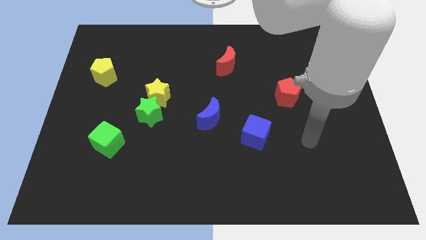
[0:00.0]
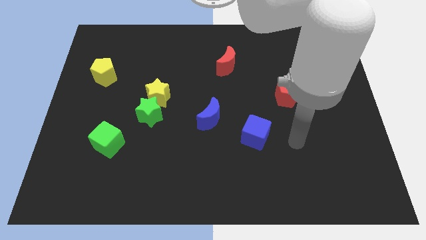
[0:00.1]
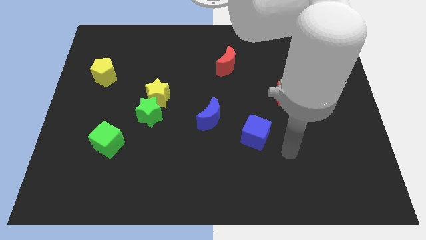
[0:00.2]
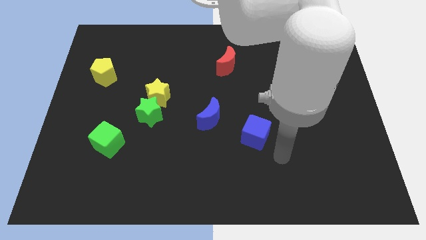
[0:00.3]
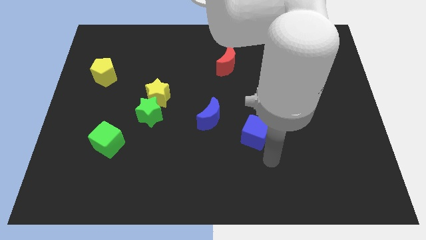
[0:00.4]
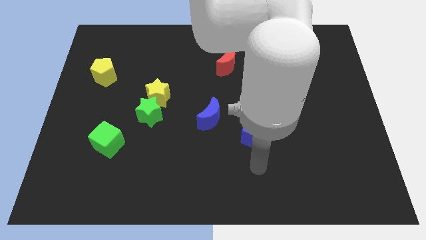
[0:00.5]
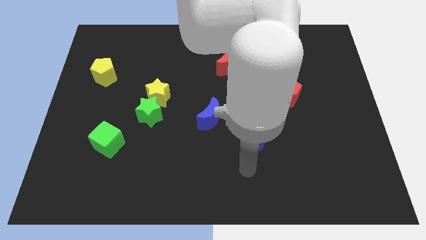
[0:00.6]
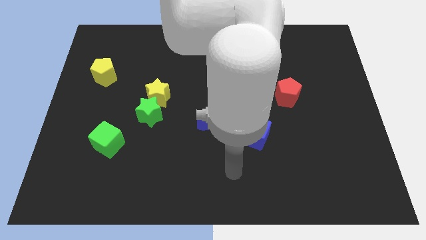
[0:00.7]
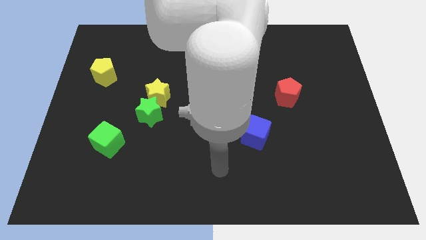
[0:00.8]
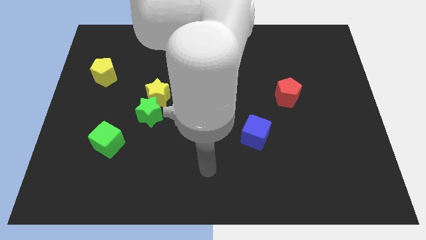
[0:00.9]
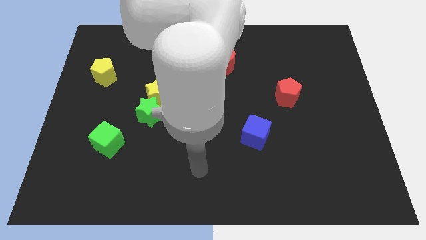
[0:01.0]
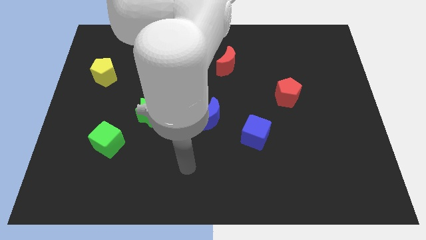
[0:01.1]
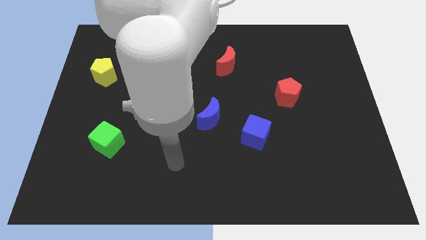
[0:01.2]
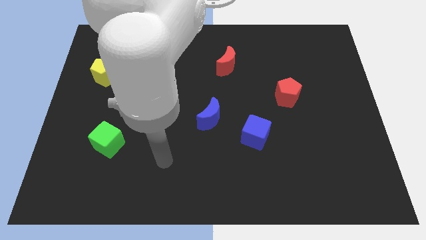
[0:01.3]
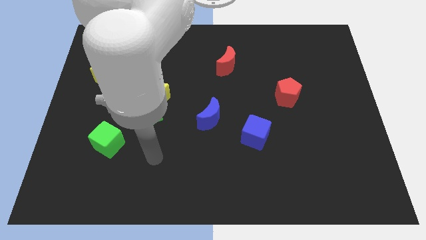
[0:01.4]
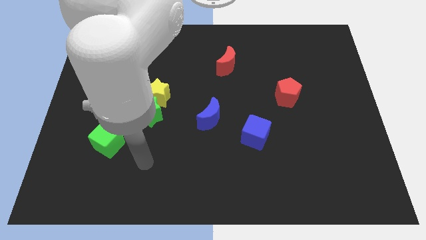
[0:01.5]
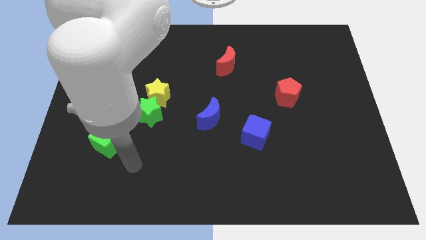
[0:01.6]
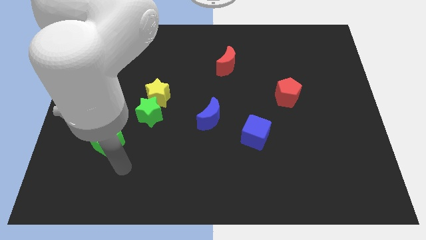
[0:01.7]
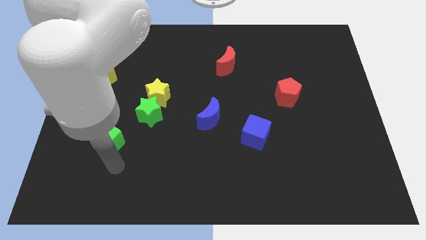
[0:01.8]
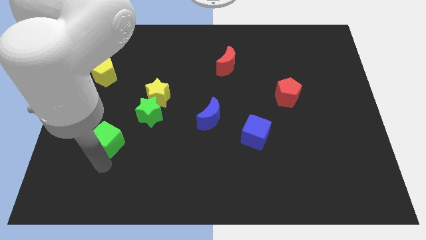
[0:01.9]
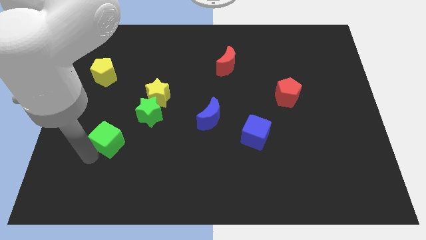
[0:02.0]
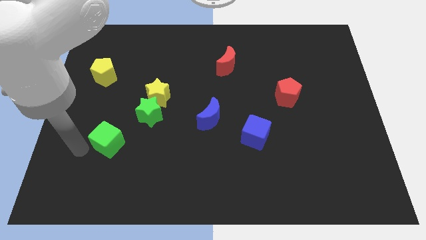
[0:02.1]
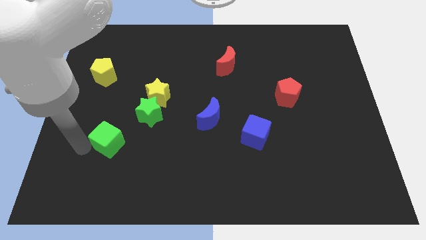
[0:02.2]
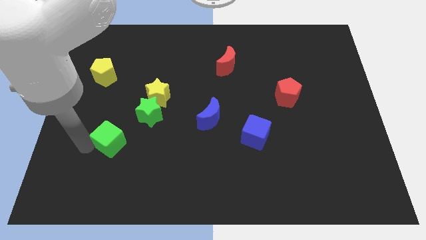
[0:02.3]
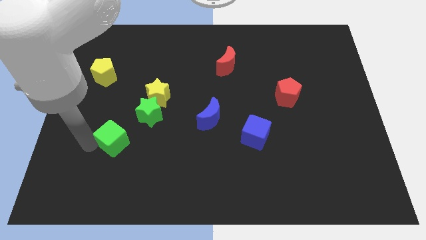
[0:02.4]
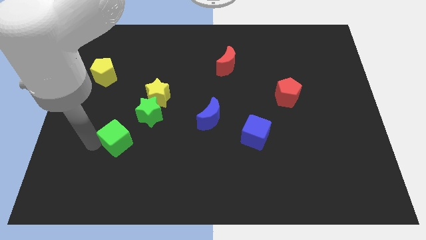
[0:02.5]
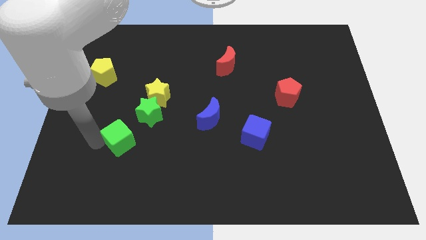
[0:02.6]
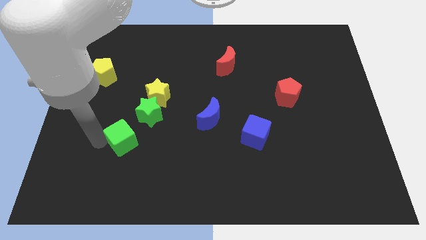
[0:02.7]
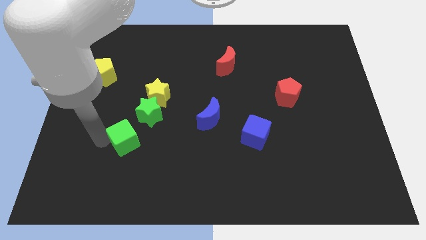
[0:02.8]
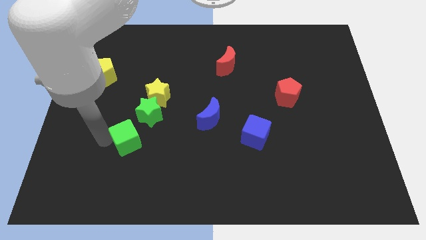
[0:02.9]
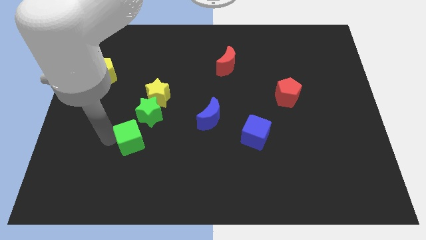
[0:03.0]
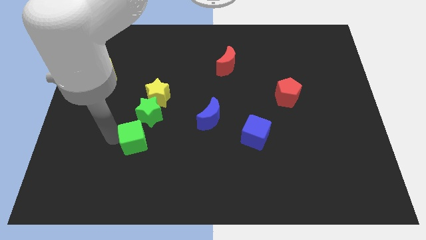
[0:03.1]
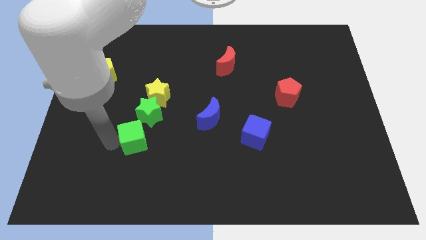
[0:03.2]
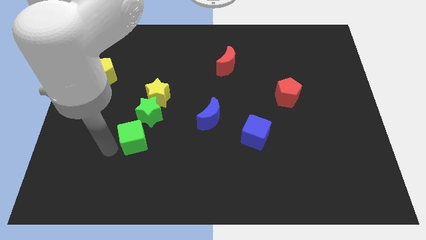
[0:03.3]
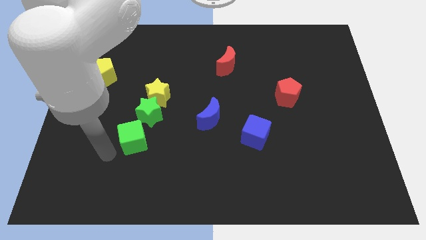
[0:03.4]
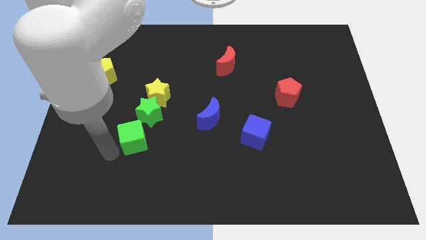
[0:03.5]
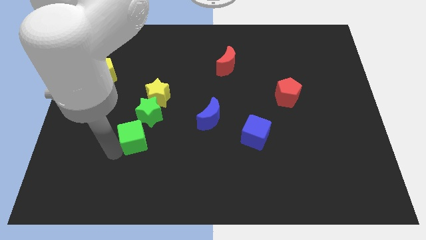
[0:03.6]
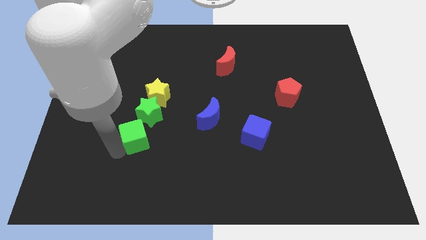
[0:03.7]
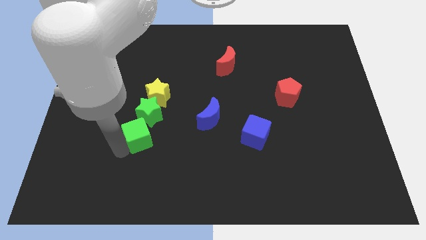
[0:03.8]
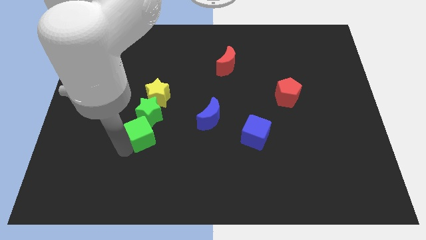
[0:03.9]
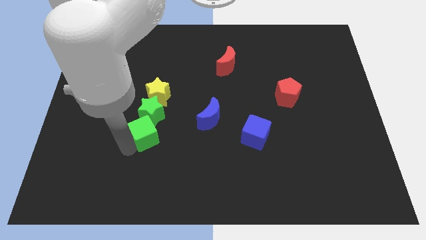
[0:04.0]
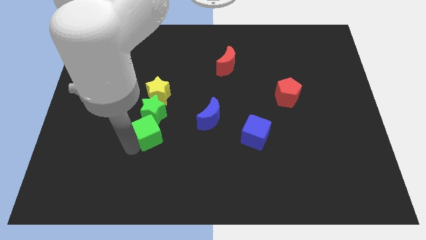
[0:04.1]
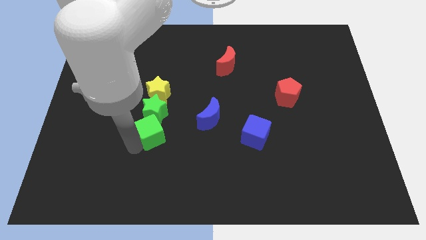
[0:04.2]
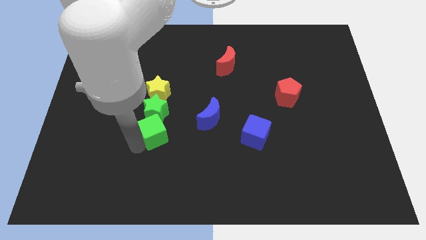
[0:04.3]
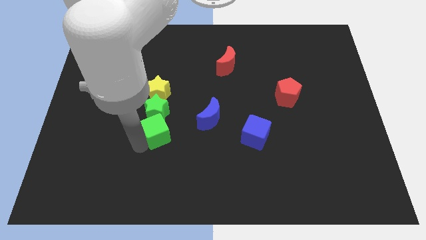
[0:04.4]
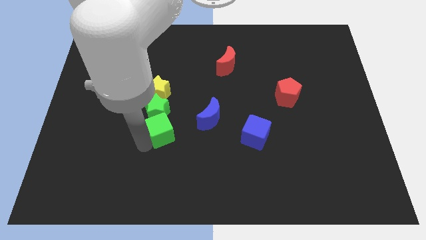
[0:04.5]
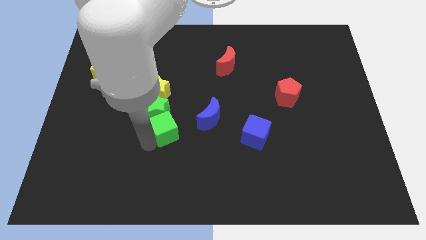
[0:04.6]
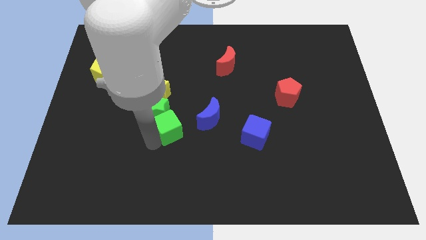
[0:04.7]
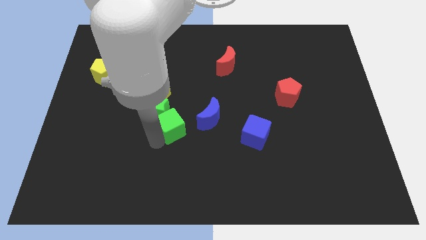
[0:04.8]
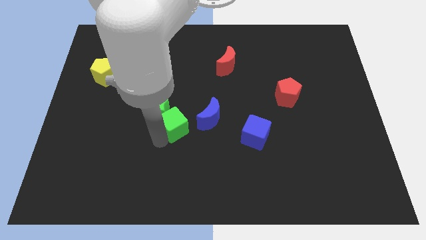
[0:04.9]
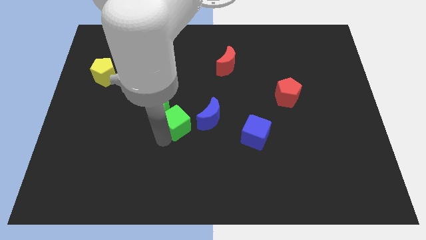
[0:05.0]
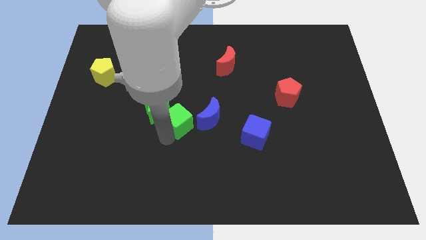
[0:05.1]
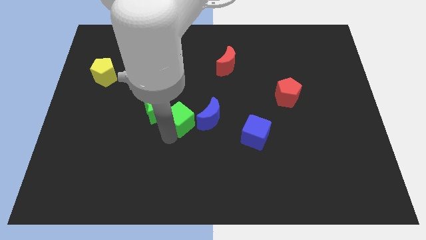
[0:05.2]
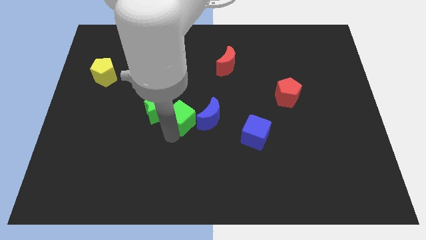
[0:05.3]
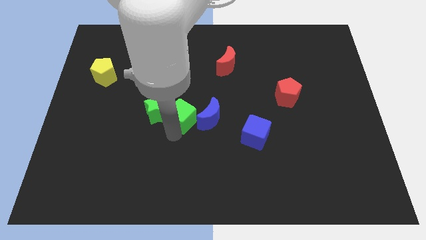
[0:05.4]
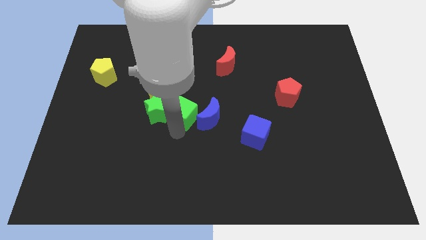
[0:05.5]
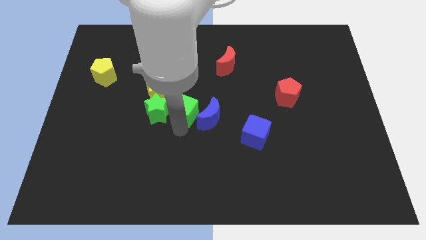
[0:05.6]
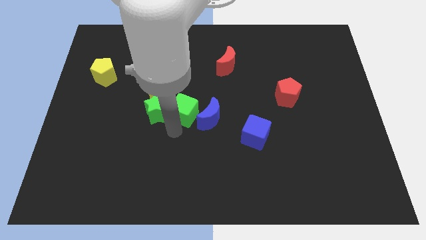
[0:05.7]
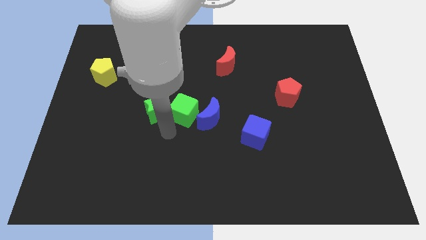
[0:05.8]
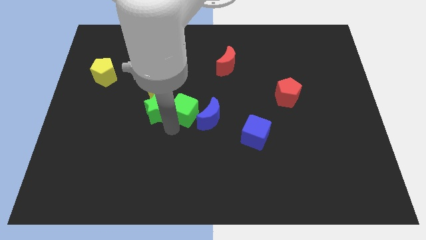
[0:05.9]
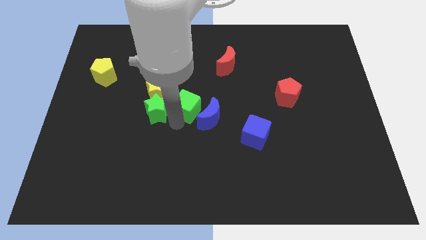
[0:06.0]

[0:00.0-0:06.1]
push the green cube just right of the yellow star
